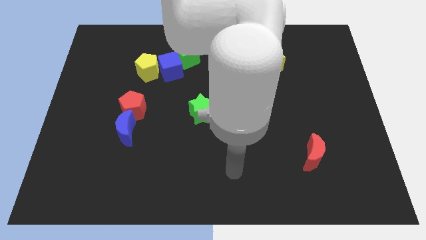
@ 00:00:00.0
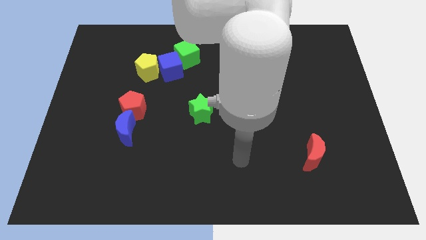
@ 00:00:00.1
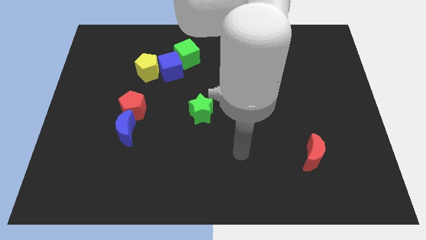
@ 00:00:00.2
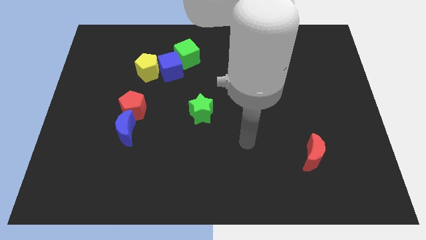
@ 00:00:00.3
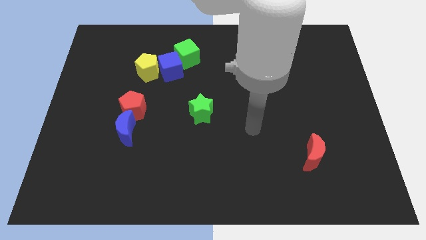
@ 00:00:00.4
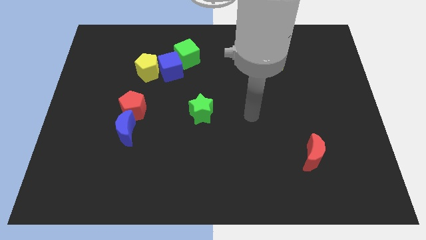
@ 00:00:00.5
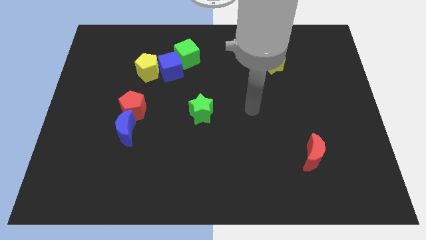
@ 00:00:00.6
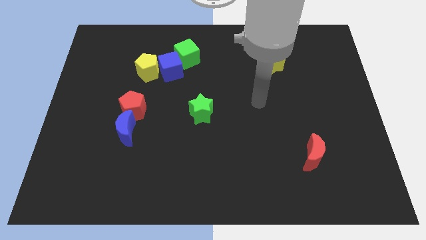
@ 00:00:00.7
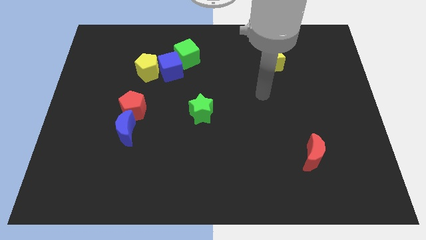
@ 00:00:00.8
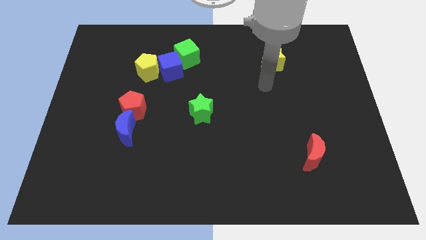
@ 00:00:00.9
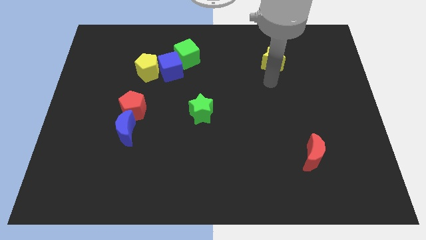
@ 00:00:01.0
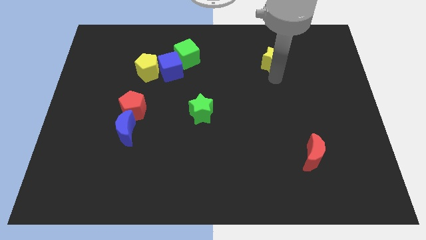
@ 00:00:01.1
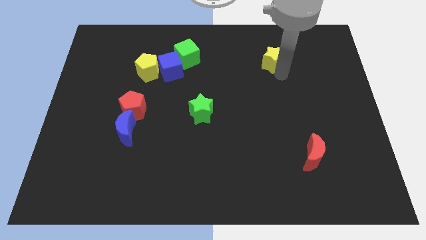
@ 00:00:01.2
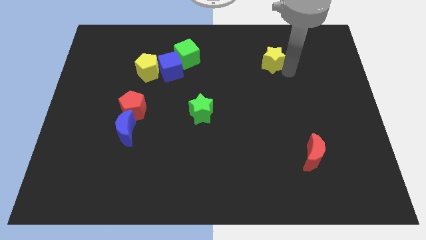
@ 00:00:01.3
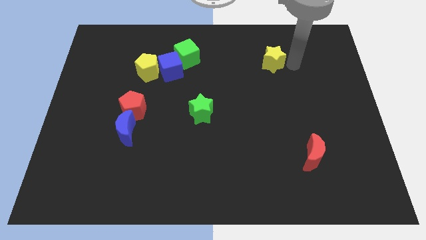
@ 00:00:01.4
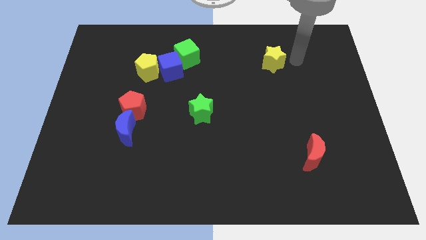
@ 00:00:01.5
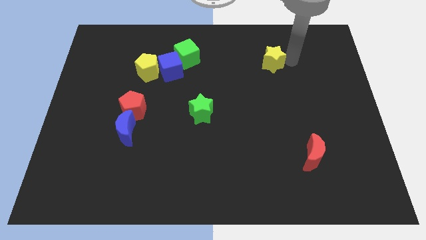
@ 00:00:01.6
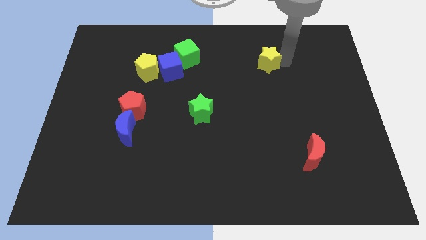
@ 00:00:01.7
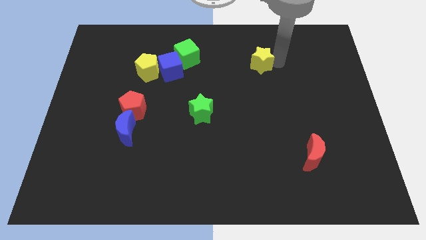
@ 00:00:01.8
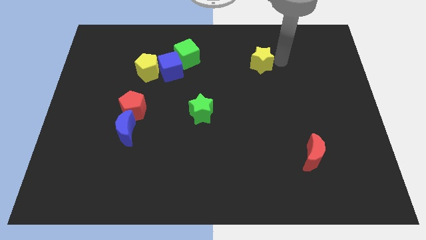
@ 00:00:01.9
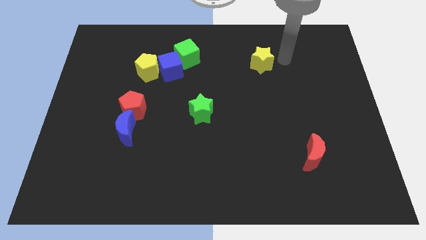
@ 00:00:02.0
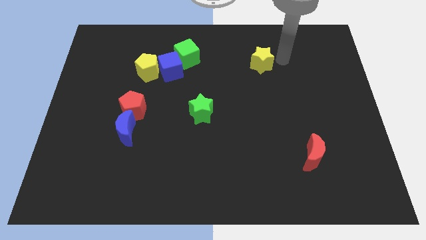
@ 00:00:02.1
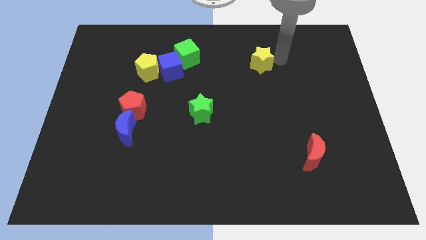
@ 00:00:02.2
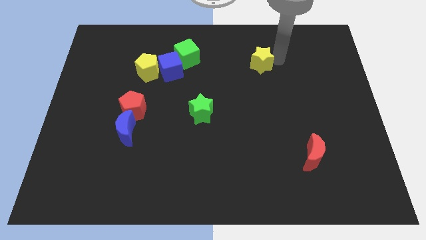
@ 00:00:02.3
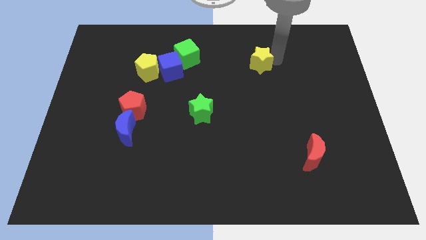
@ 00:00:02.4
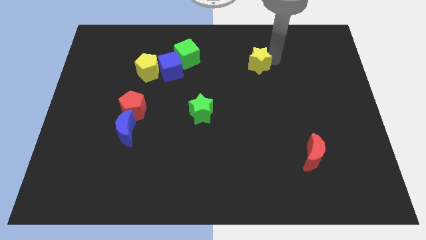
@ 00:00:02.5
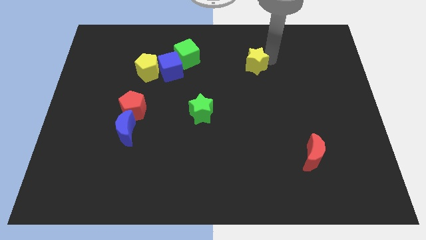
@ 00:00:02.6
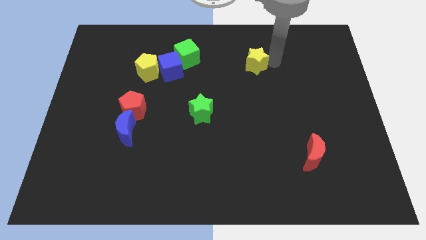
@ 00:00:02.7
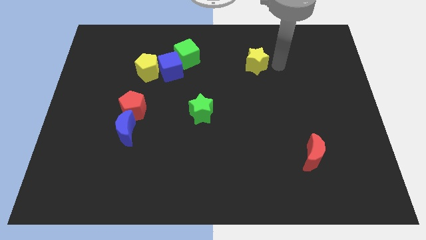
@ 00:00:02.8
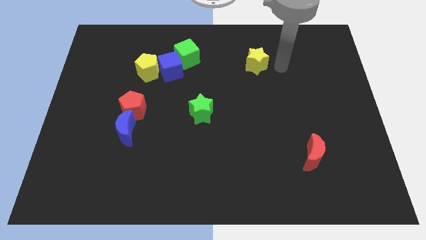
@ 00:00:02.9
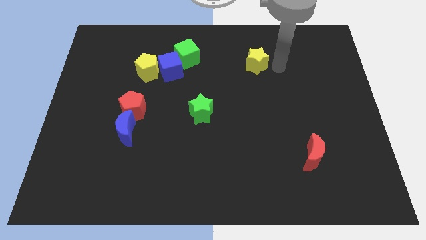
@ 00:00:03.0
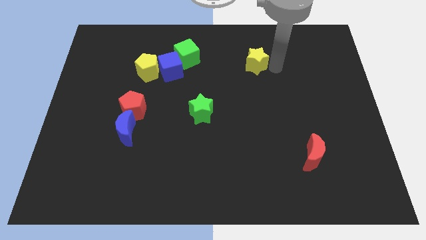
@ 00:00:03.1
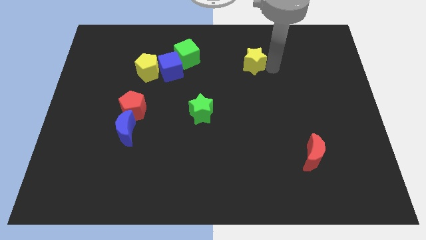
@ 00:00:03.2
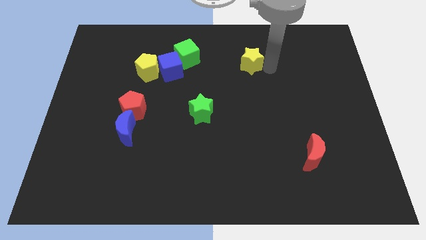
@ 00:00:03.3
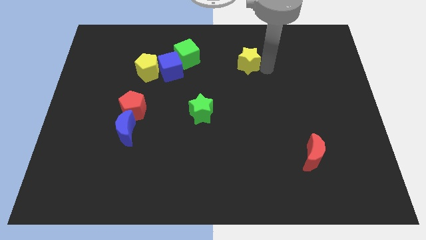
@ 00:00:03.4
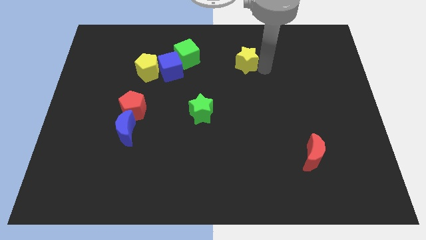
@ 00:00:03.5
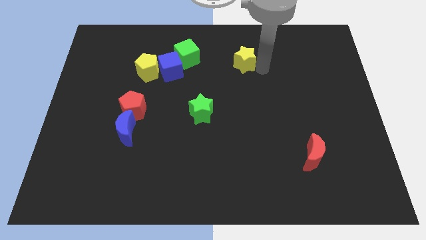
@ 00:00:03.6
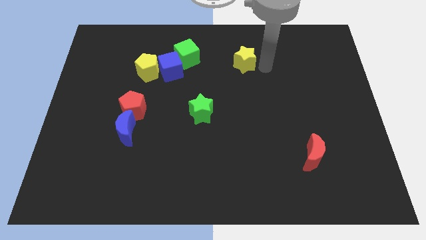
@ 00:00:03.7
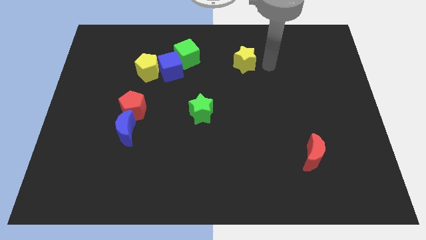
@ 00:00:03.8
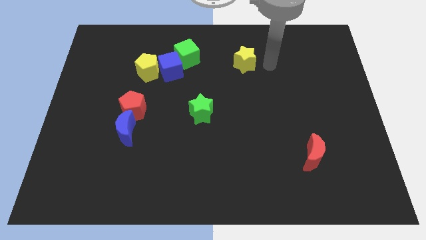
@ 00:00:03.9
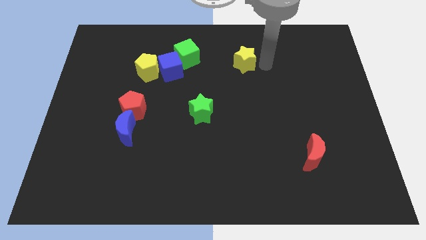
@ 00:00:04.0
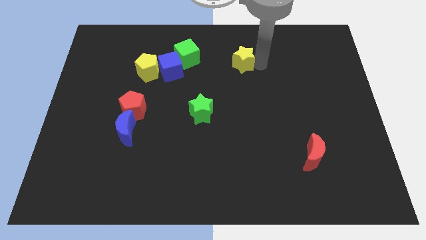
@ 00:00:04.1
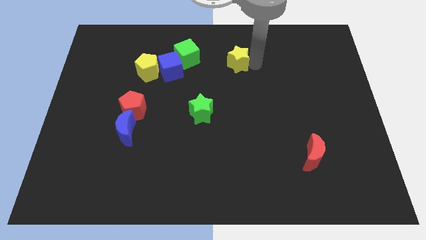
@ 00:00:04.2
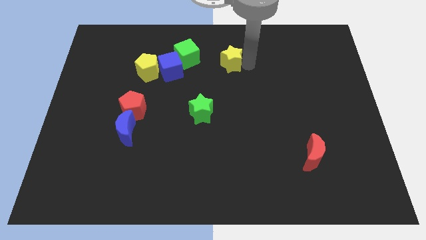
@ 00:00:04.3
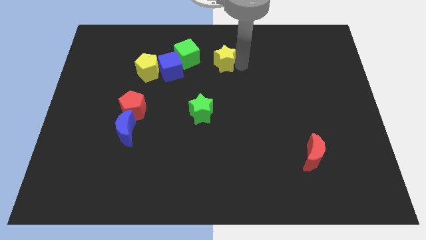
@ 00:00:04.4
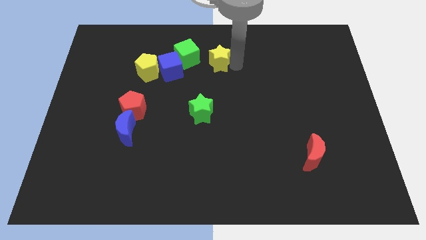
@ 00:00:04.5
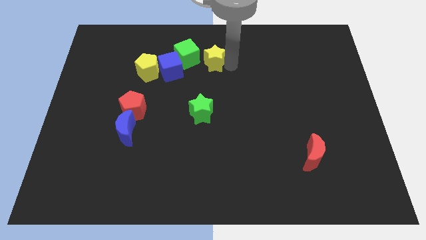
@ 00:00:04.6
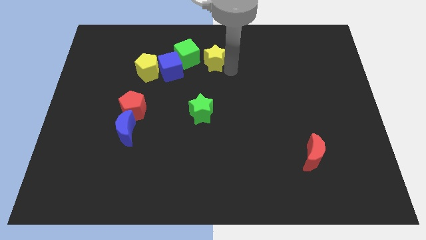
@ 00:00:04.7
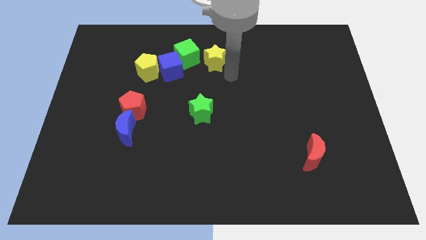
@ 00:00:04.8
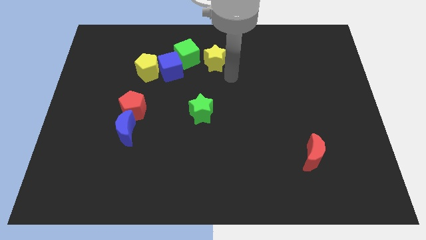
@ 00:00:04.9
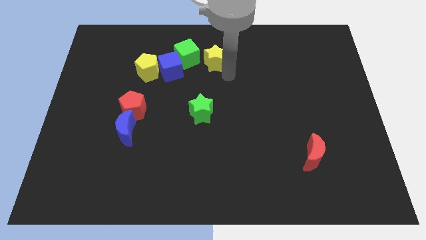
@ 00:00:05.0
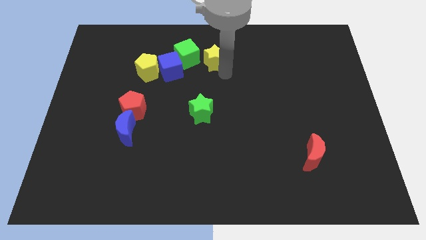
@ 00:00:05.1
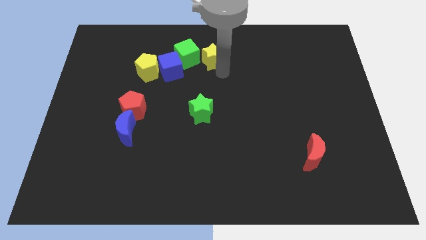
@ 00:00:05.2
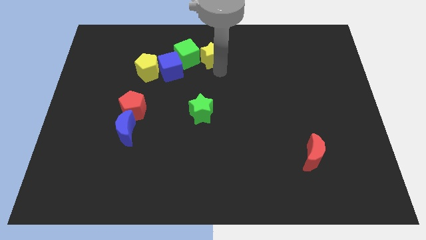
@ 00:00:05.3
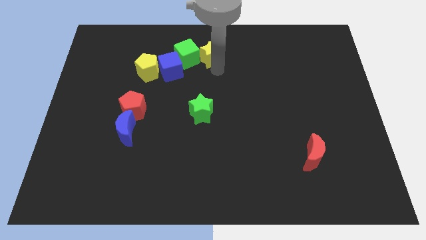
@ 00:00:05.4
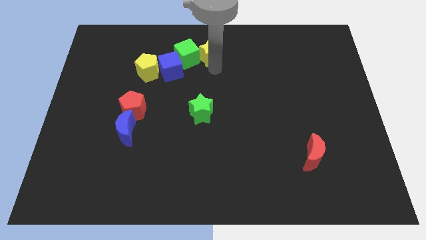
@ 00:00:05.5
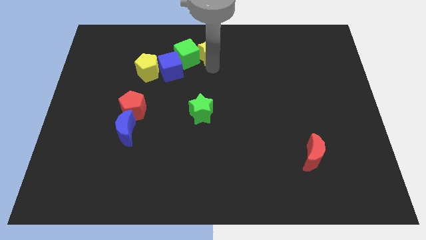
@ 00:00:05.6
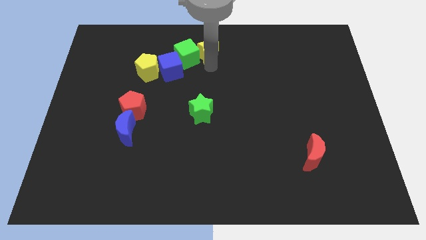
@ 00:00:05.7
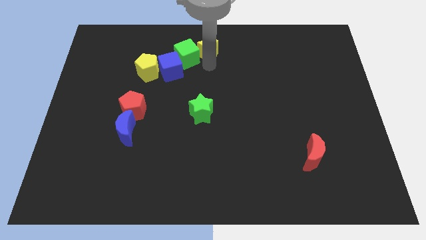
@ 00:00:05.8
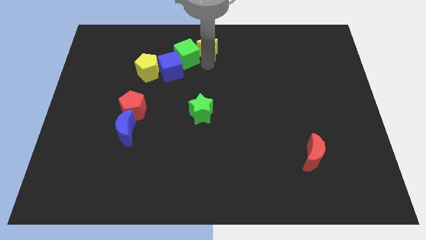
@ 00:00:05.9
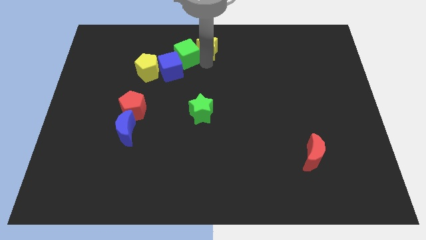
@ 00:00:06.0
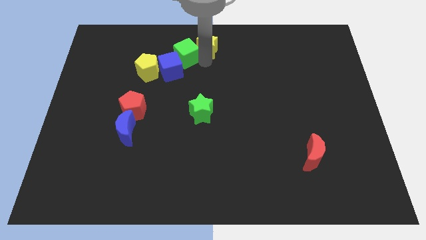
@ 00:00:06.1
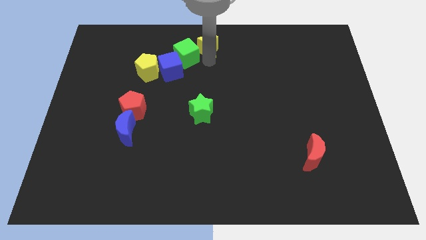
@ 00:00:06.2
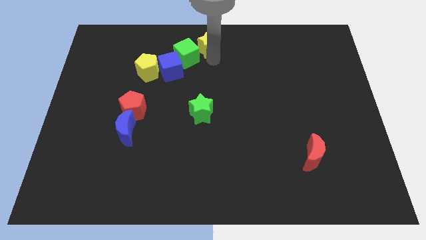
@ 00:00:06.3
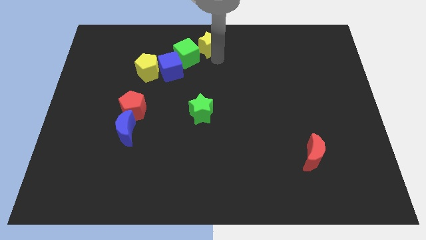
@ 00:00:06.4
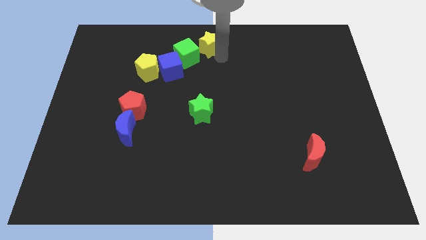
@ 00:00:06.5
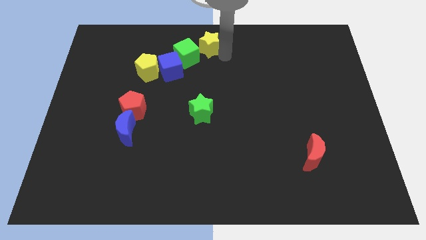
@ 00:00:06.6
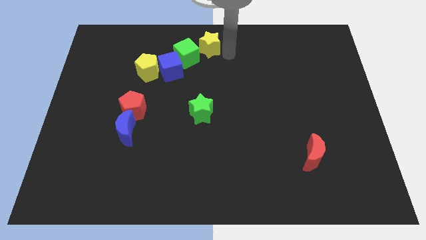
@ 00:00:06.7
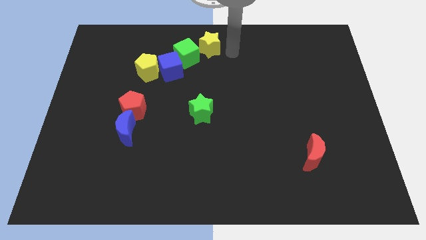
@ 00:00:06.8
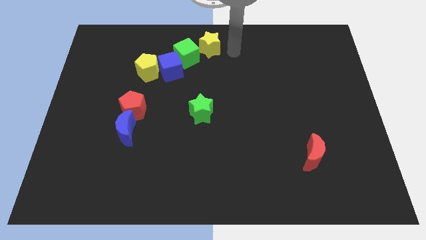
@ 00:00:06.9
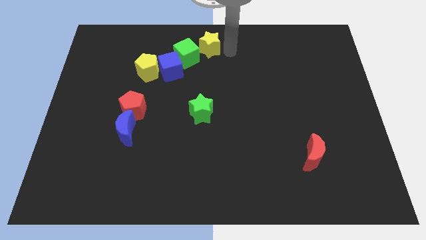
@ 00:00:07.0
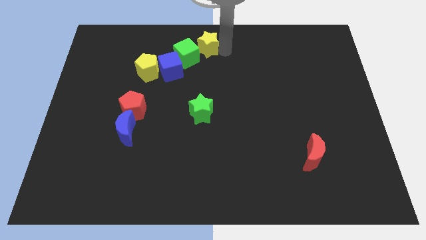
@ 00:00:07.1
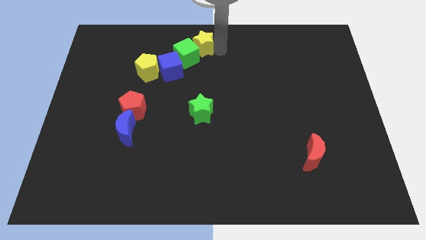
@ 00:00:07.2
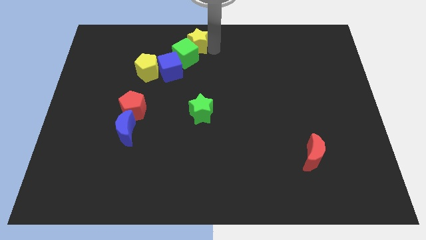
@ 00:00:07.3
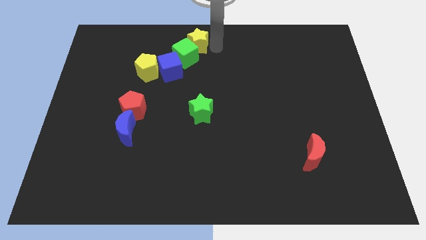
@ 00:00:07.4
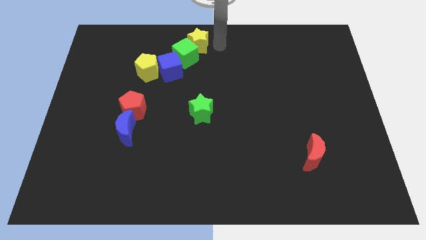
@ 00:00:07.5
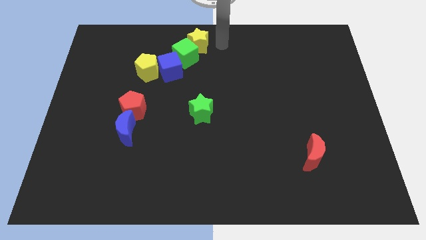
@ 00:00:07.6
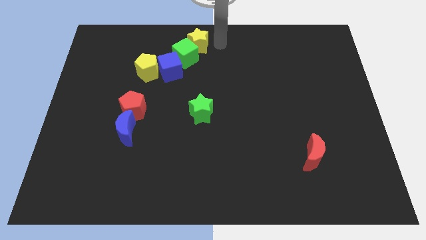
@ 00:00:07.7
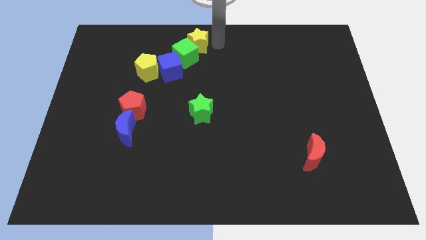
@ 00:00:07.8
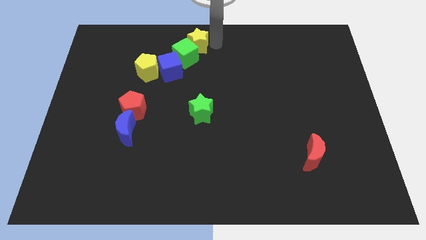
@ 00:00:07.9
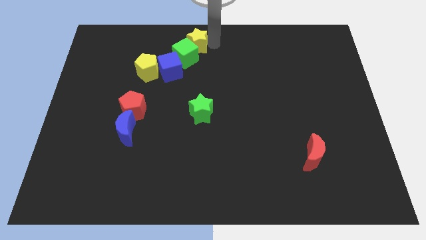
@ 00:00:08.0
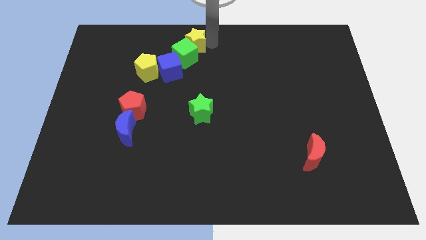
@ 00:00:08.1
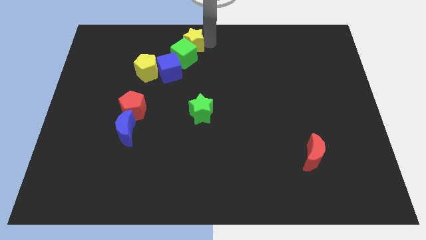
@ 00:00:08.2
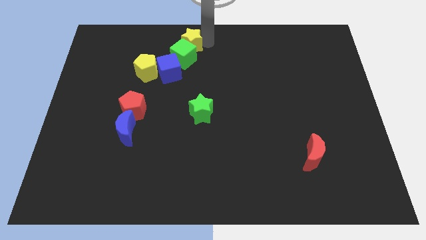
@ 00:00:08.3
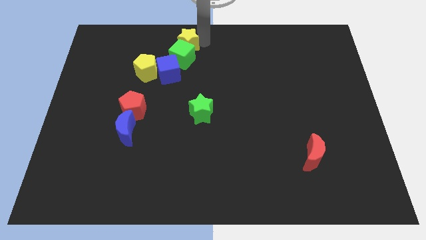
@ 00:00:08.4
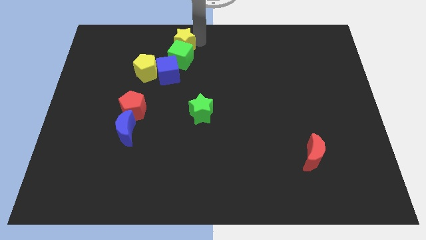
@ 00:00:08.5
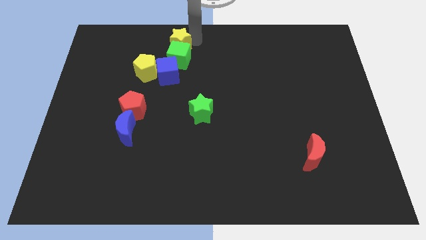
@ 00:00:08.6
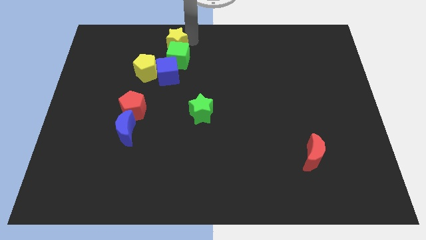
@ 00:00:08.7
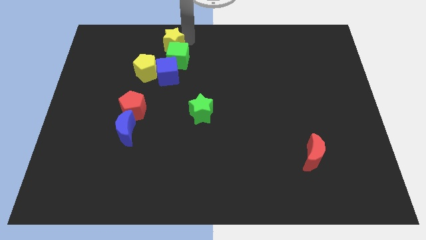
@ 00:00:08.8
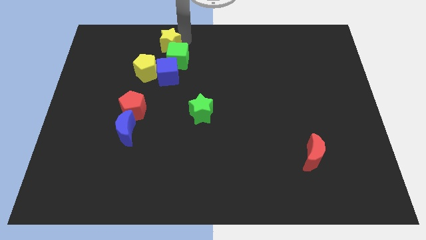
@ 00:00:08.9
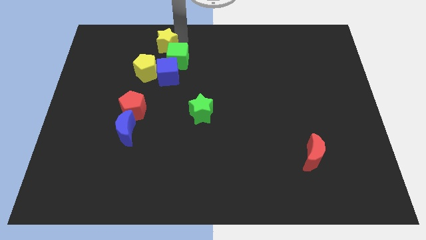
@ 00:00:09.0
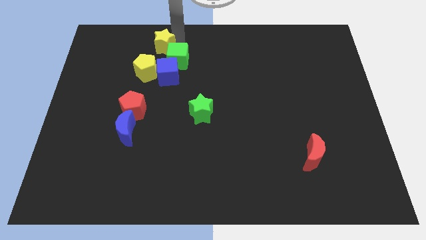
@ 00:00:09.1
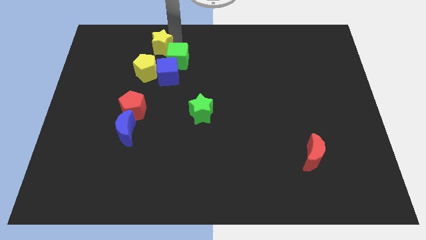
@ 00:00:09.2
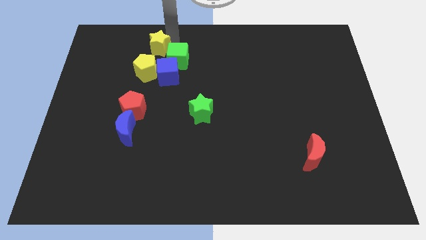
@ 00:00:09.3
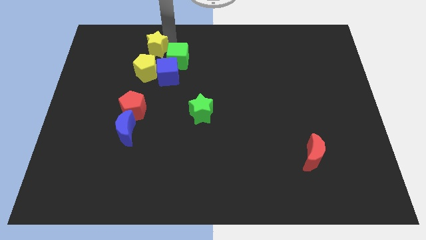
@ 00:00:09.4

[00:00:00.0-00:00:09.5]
move the yellow star diagonally up and to the left of the blue cube
